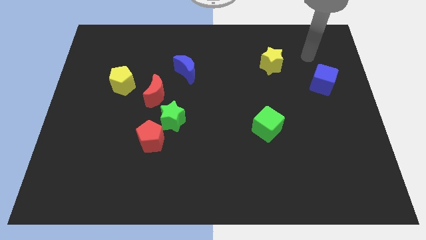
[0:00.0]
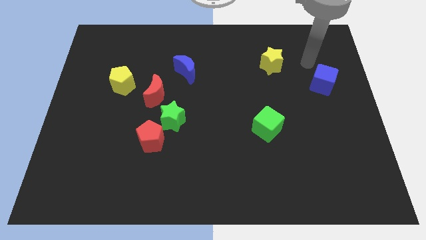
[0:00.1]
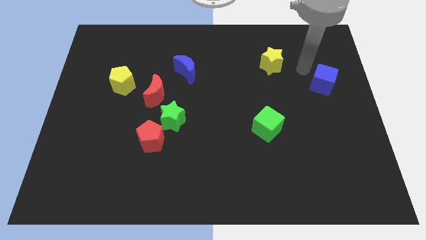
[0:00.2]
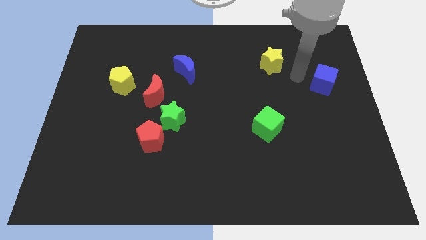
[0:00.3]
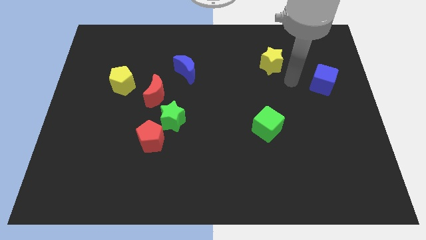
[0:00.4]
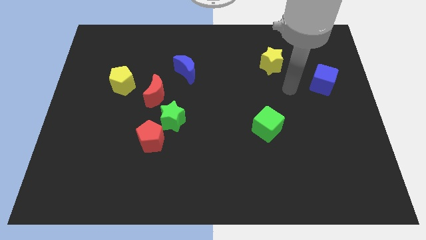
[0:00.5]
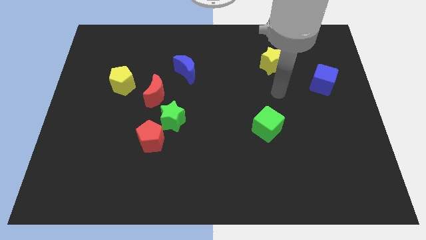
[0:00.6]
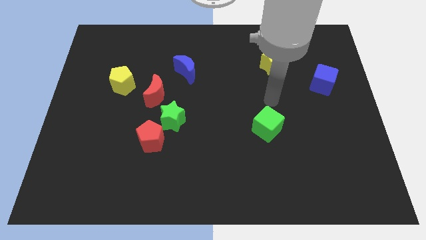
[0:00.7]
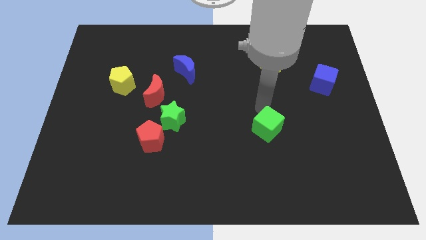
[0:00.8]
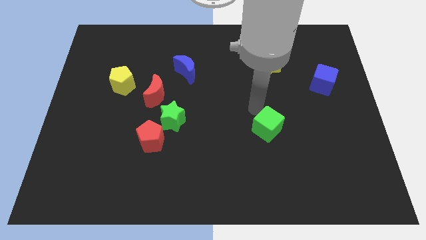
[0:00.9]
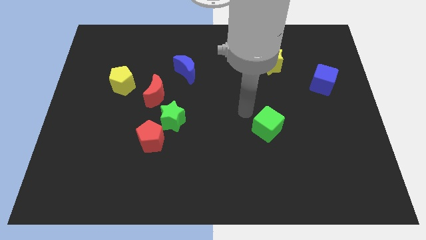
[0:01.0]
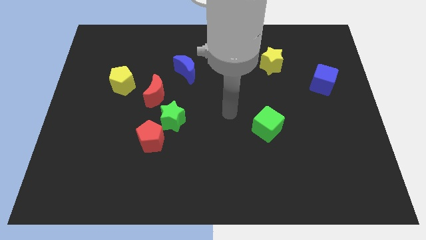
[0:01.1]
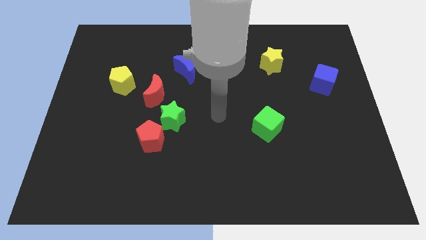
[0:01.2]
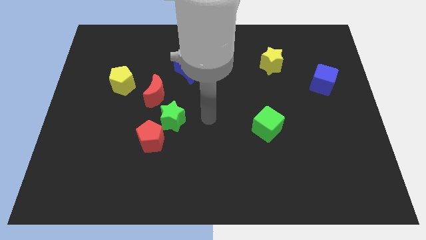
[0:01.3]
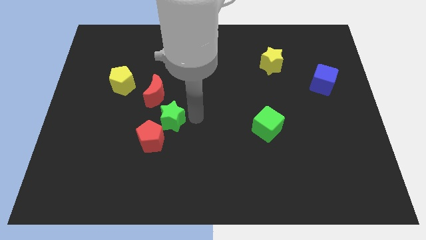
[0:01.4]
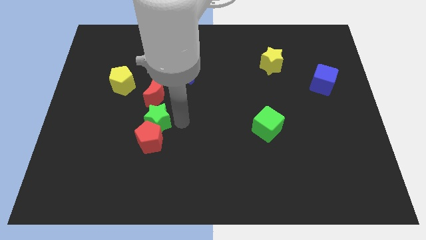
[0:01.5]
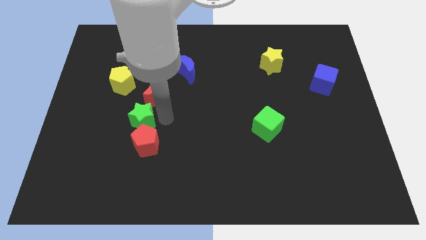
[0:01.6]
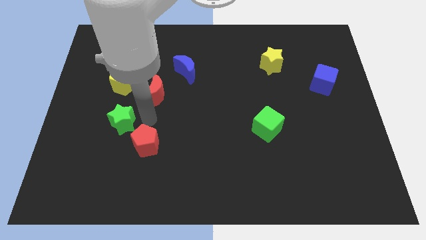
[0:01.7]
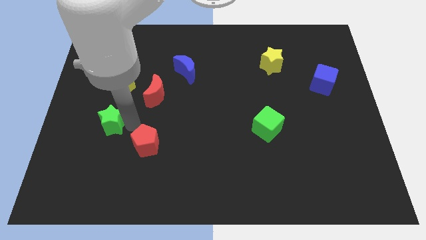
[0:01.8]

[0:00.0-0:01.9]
move the red pentagon away from the green star

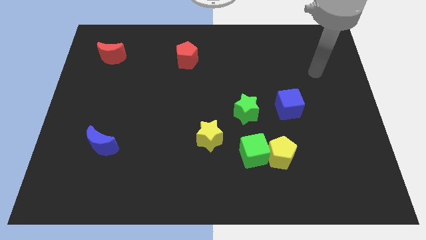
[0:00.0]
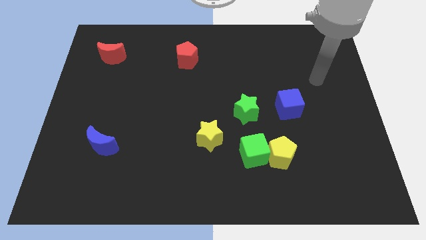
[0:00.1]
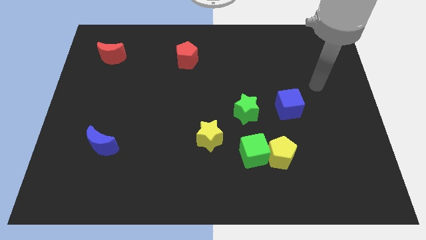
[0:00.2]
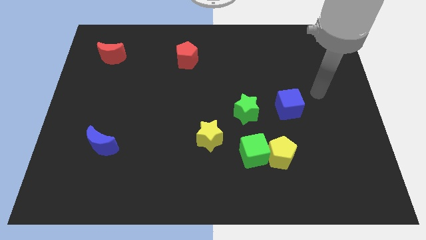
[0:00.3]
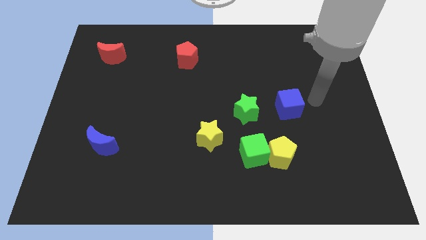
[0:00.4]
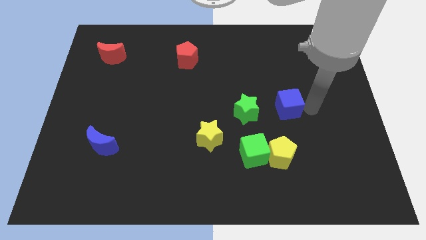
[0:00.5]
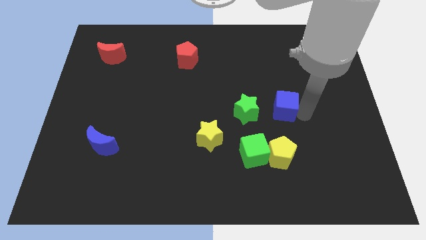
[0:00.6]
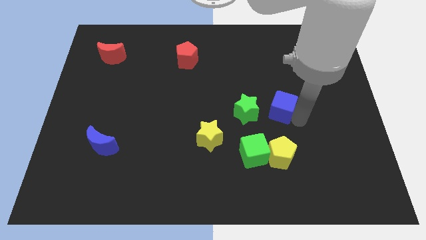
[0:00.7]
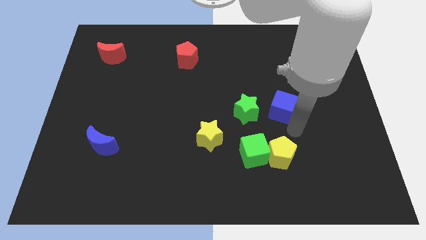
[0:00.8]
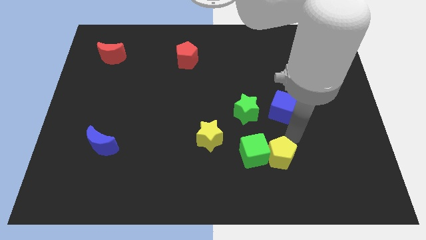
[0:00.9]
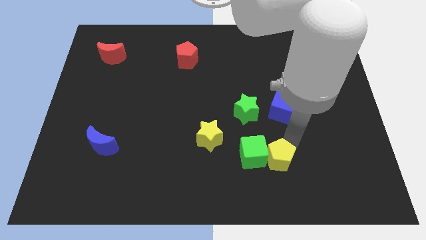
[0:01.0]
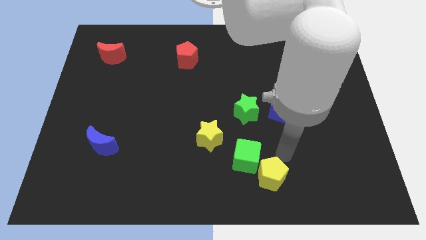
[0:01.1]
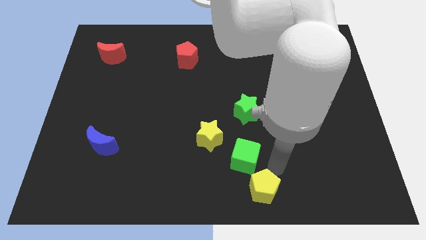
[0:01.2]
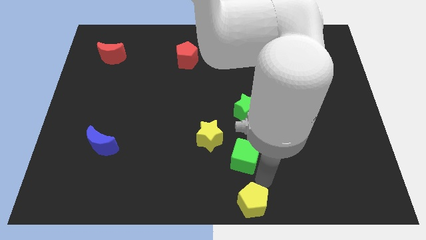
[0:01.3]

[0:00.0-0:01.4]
move the green cube away from the yellow pentagon

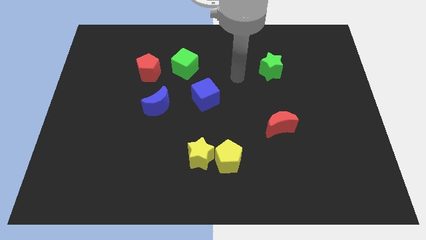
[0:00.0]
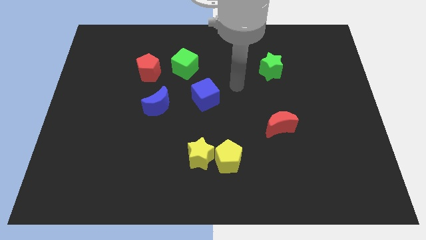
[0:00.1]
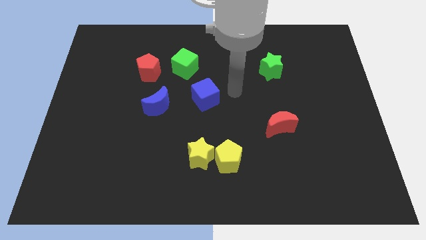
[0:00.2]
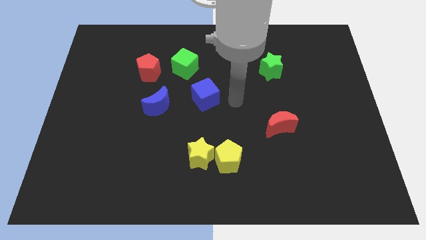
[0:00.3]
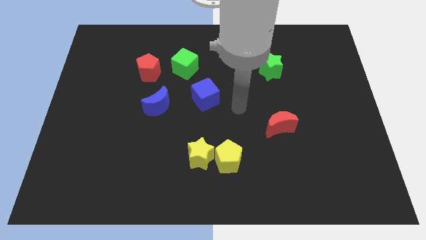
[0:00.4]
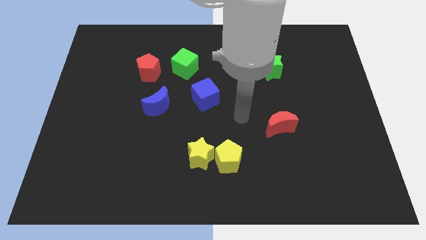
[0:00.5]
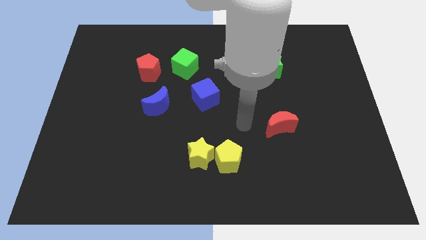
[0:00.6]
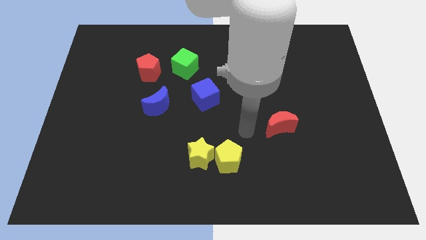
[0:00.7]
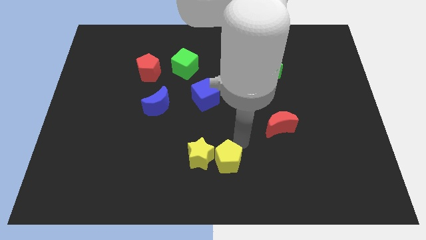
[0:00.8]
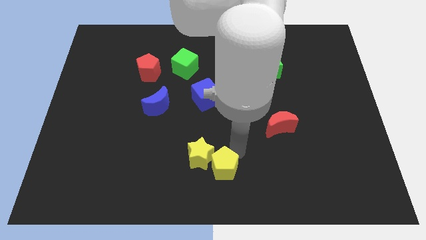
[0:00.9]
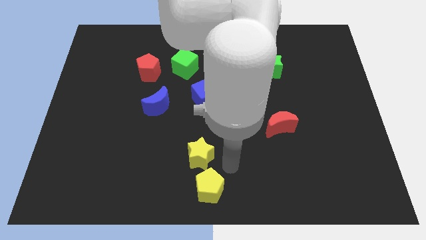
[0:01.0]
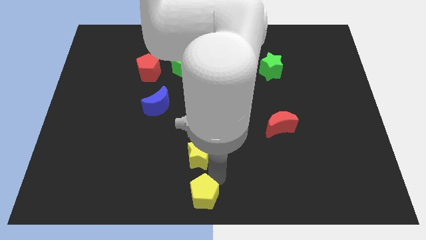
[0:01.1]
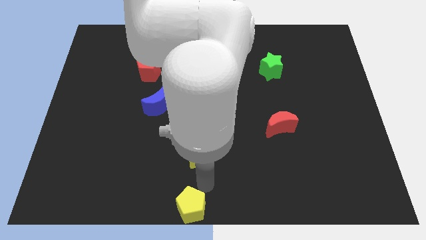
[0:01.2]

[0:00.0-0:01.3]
separate the yellow star from the yellow pentagon

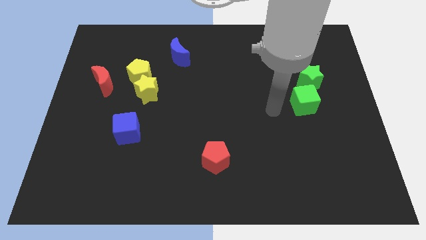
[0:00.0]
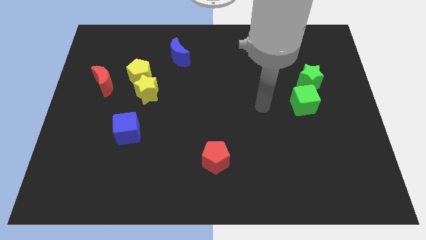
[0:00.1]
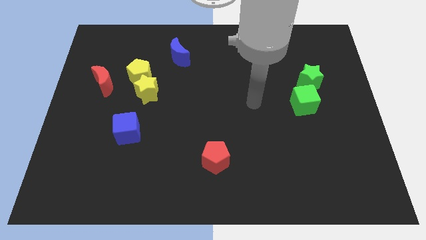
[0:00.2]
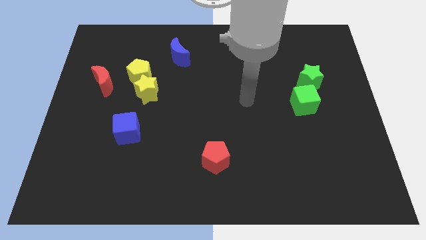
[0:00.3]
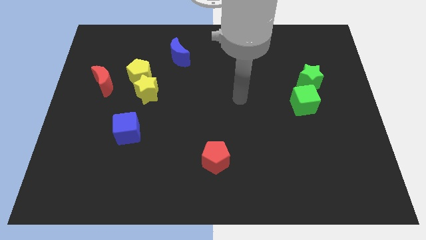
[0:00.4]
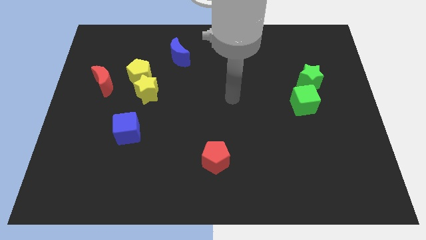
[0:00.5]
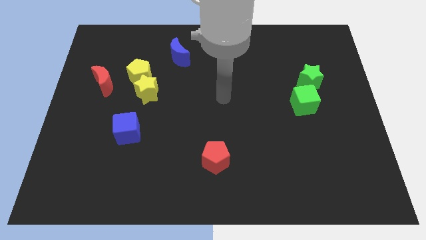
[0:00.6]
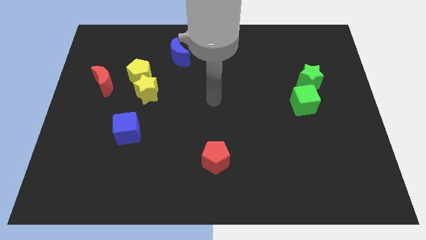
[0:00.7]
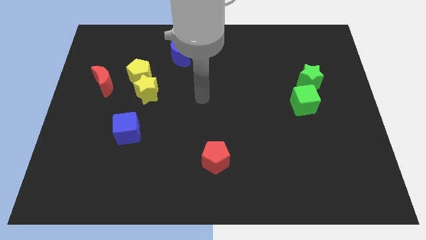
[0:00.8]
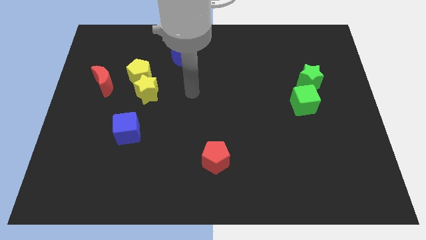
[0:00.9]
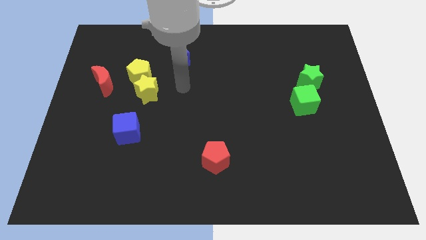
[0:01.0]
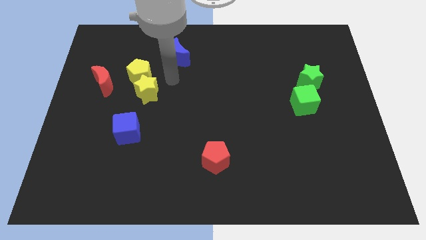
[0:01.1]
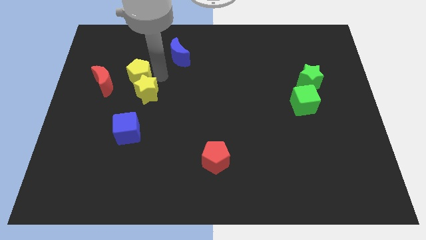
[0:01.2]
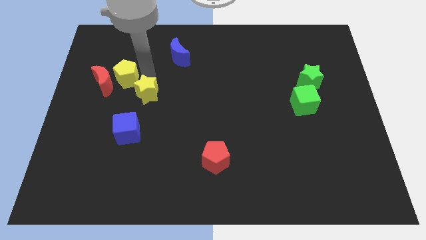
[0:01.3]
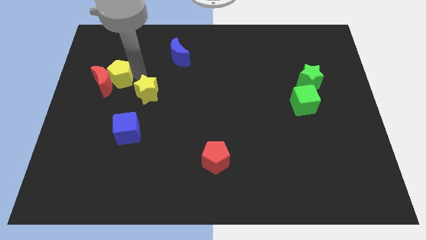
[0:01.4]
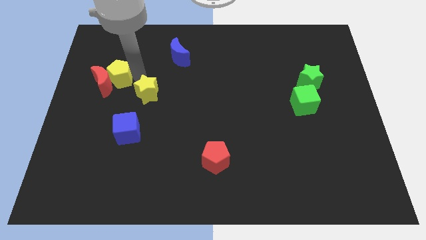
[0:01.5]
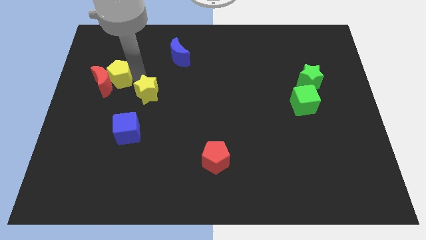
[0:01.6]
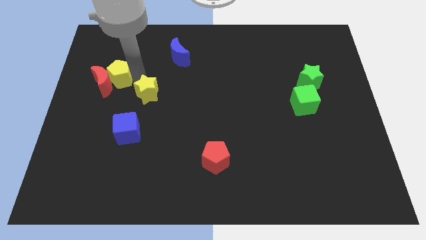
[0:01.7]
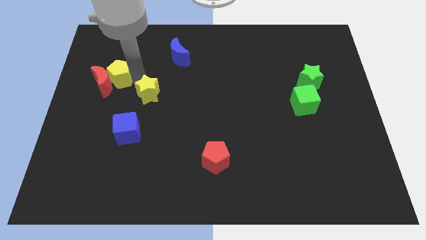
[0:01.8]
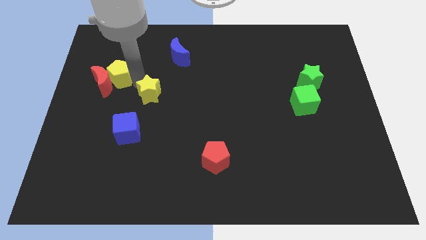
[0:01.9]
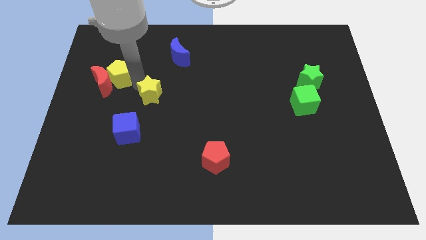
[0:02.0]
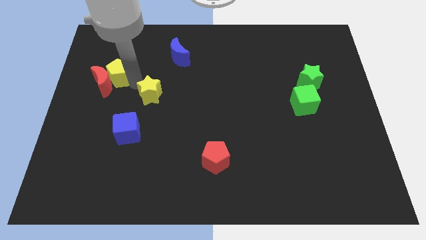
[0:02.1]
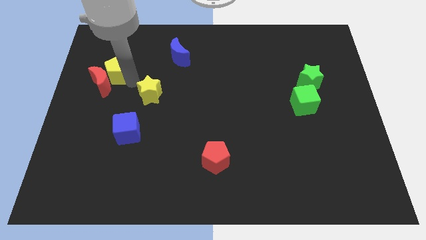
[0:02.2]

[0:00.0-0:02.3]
move the yellow star away from the yellow pentagon

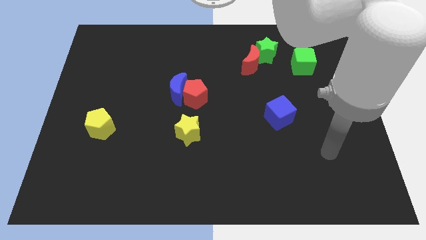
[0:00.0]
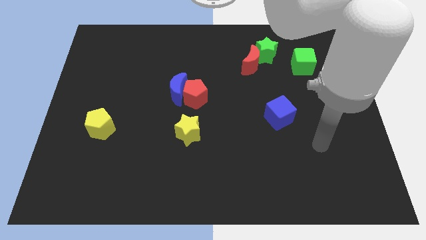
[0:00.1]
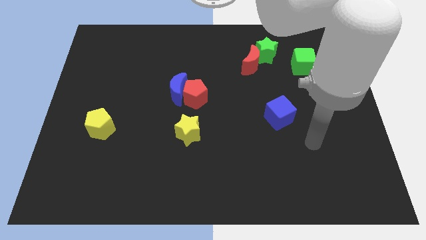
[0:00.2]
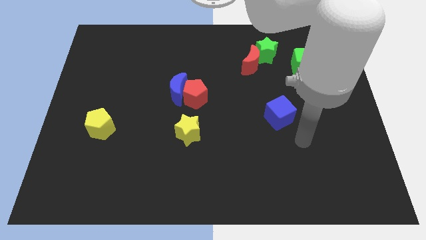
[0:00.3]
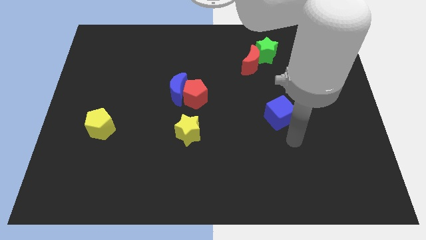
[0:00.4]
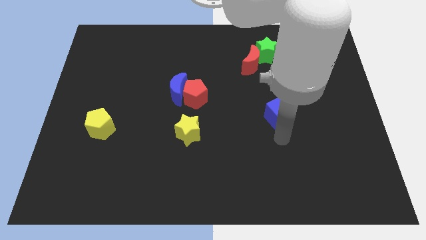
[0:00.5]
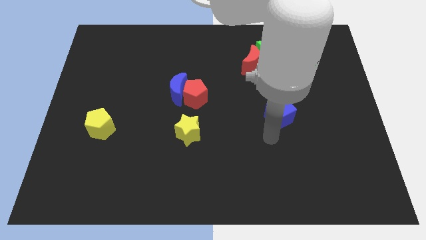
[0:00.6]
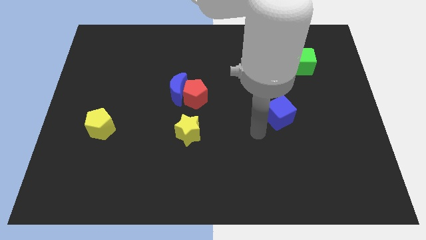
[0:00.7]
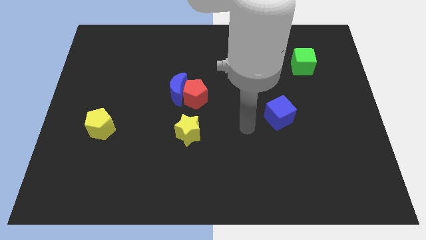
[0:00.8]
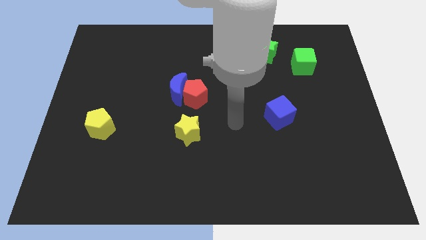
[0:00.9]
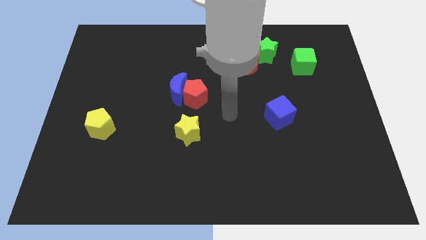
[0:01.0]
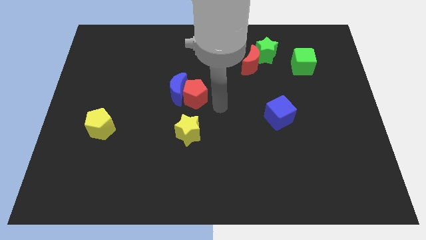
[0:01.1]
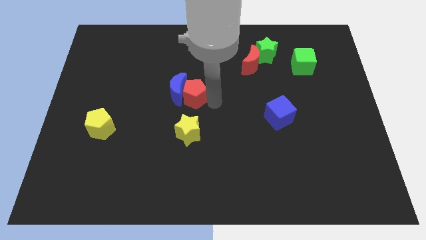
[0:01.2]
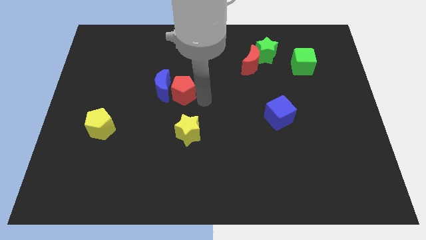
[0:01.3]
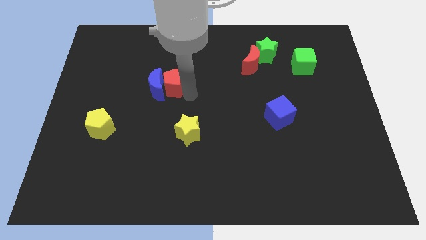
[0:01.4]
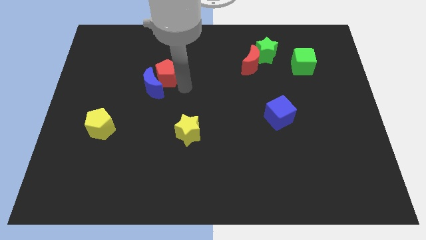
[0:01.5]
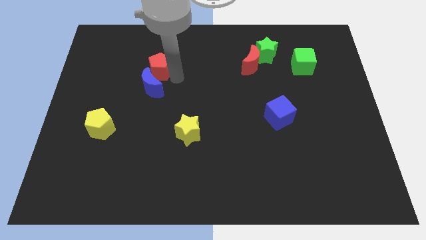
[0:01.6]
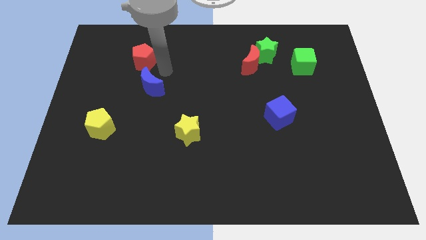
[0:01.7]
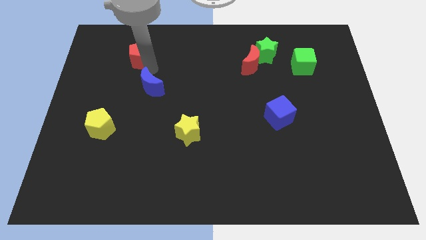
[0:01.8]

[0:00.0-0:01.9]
pull the blue moon apart from the red pentagon

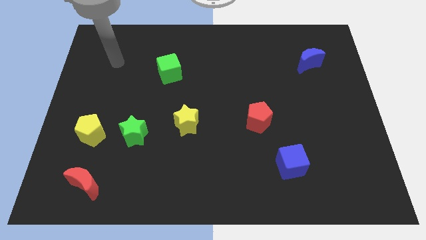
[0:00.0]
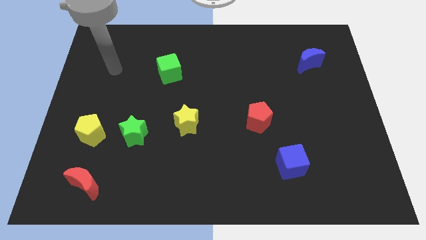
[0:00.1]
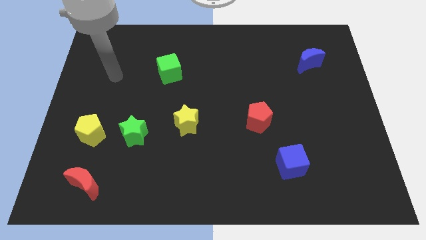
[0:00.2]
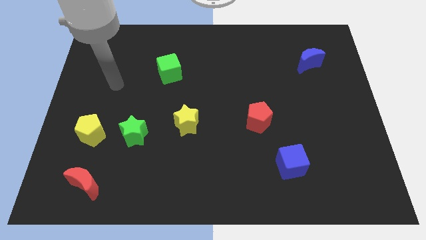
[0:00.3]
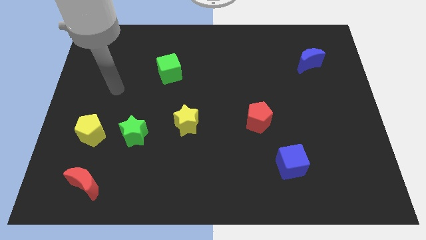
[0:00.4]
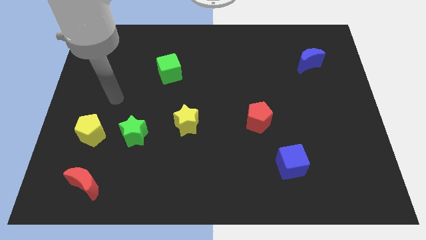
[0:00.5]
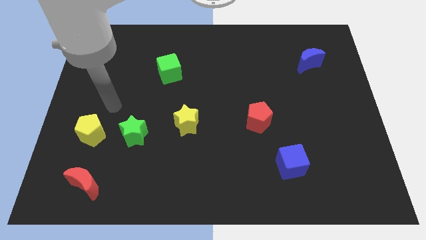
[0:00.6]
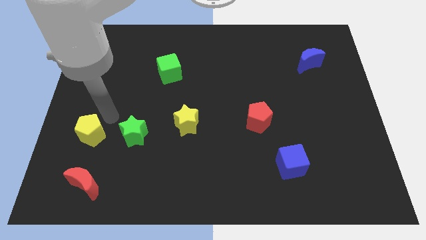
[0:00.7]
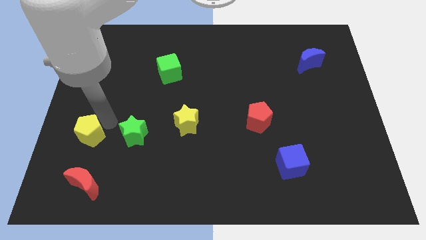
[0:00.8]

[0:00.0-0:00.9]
pull the green star apart from the yellow pentagon
